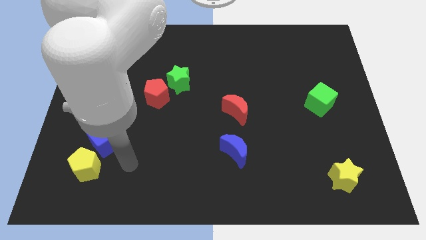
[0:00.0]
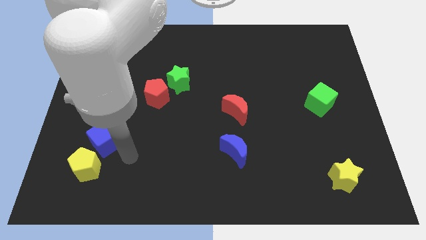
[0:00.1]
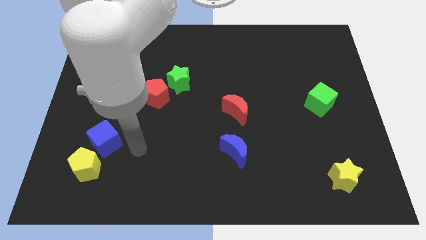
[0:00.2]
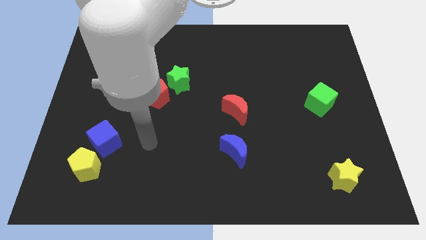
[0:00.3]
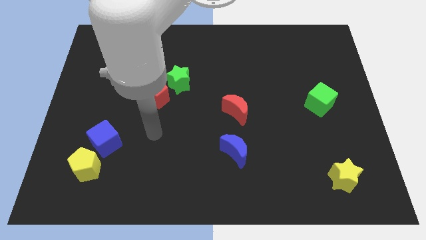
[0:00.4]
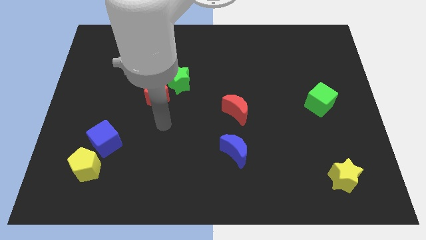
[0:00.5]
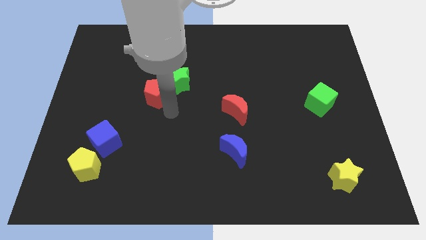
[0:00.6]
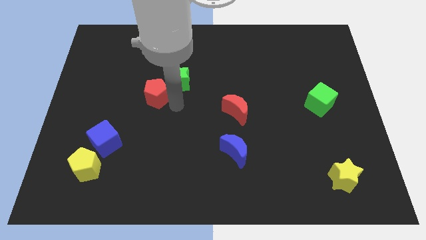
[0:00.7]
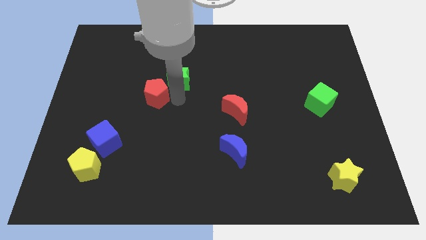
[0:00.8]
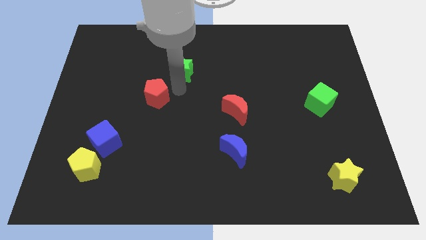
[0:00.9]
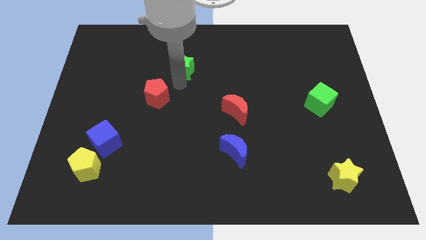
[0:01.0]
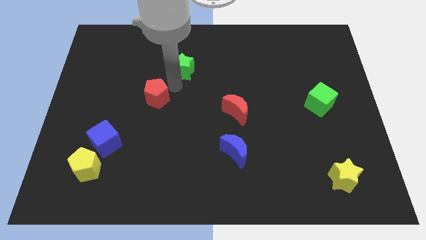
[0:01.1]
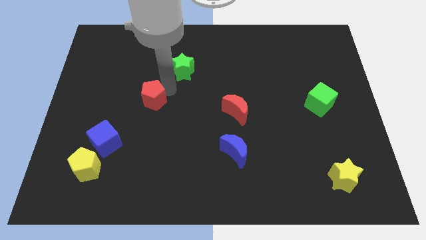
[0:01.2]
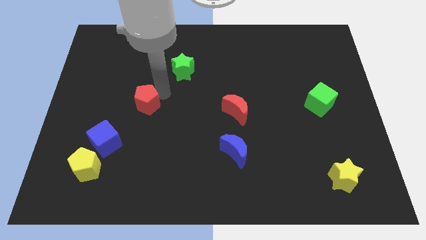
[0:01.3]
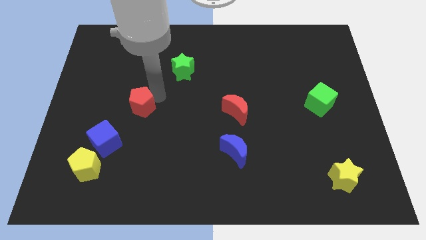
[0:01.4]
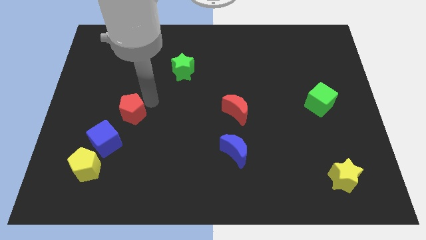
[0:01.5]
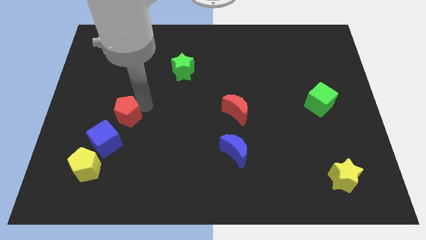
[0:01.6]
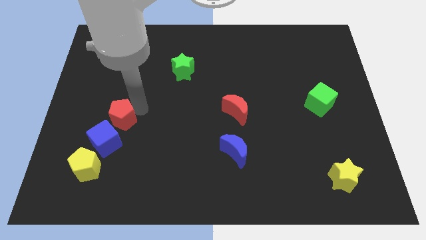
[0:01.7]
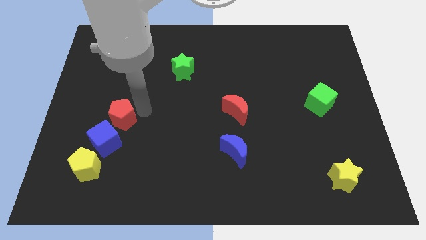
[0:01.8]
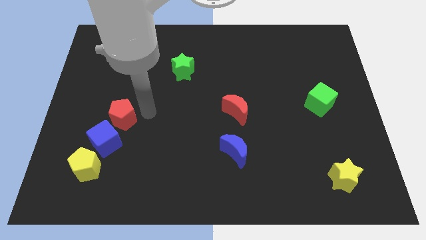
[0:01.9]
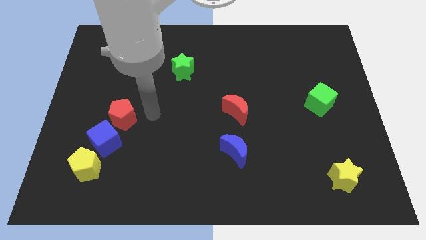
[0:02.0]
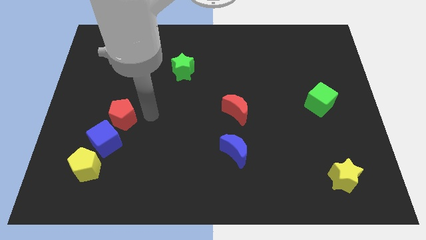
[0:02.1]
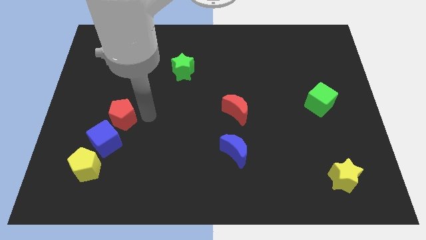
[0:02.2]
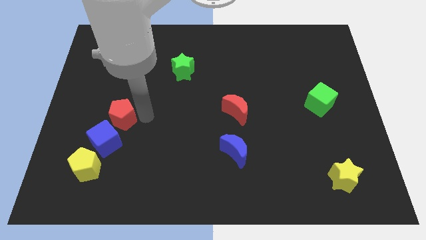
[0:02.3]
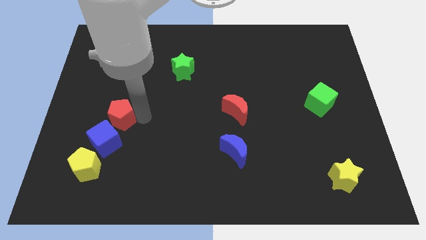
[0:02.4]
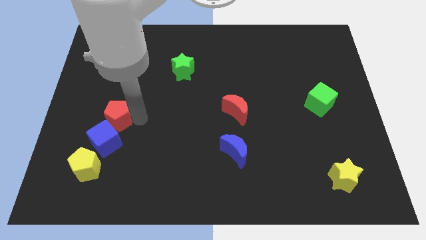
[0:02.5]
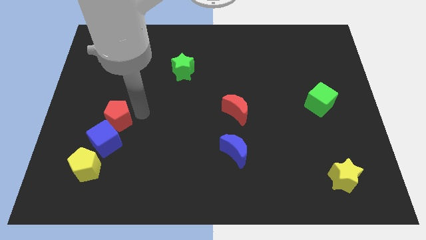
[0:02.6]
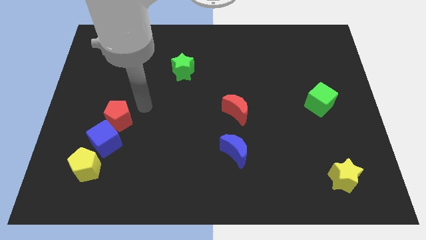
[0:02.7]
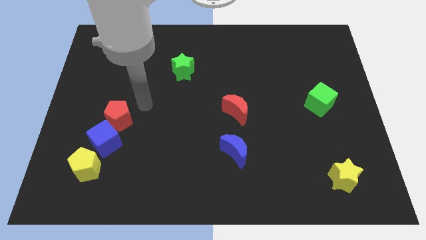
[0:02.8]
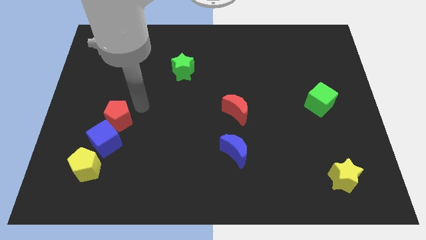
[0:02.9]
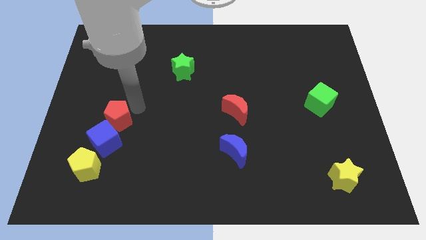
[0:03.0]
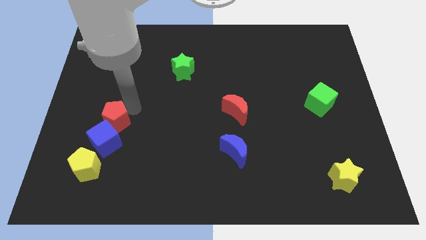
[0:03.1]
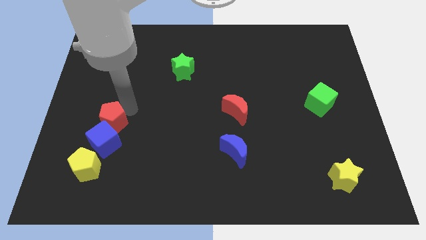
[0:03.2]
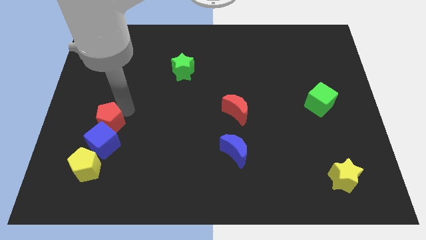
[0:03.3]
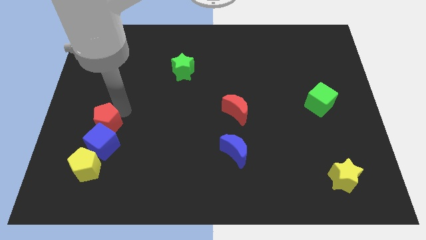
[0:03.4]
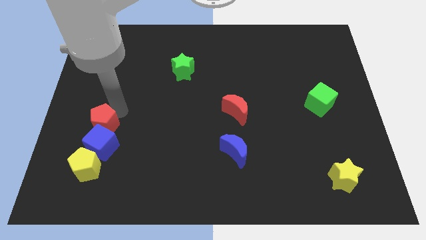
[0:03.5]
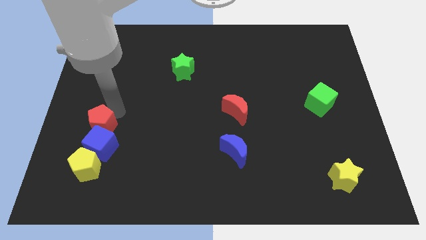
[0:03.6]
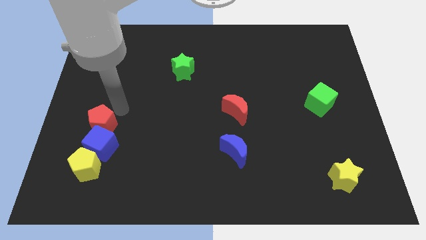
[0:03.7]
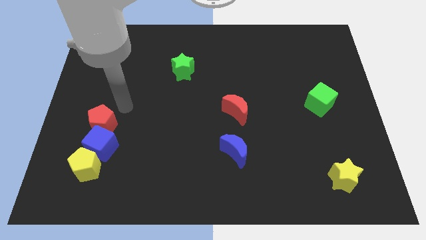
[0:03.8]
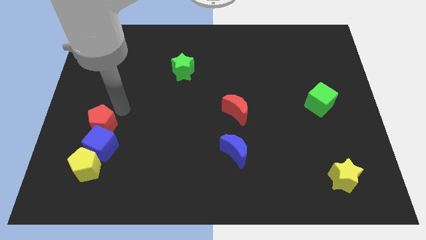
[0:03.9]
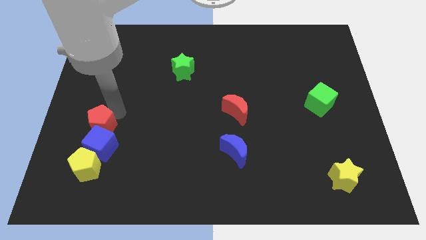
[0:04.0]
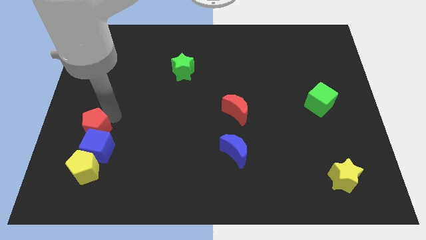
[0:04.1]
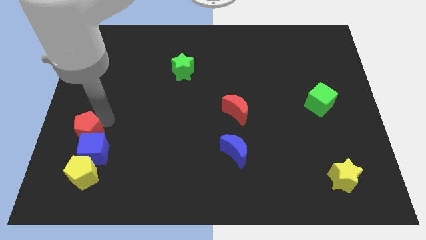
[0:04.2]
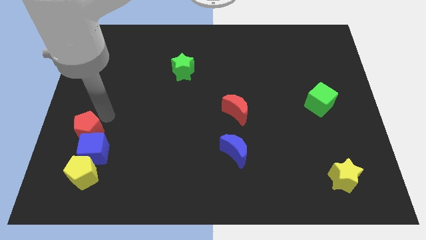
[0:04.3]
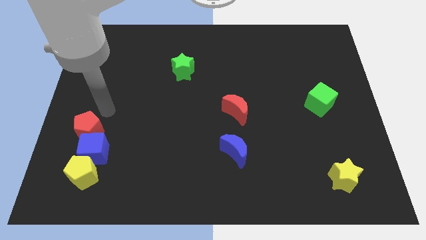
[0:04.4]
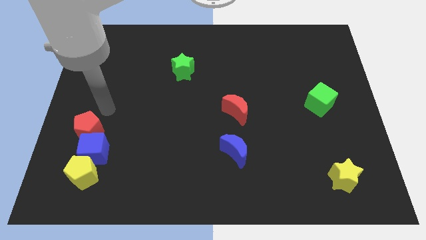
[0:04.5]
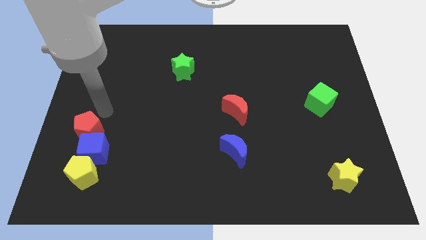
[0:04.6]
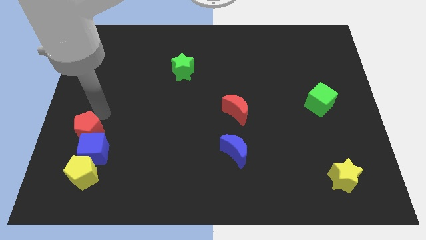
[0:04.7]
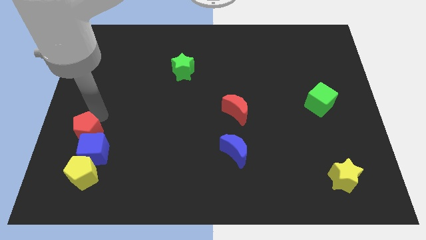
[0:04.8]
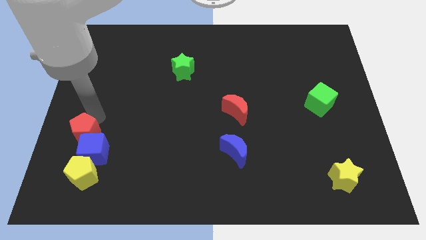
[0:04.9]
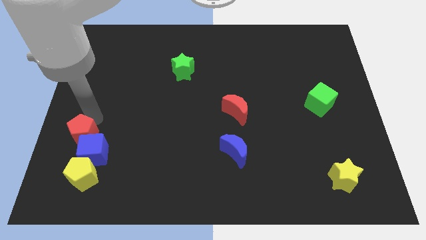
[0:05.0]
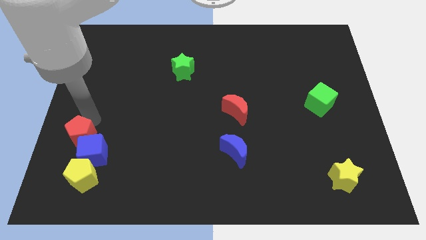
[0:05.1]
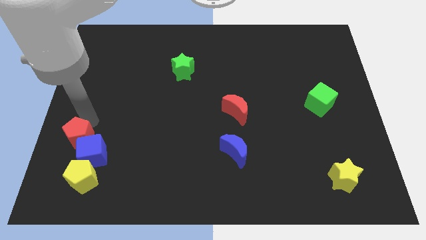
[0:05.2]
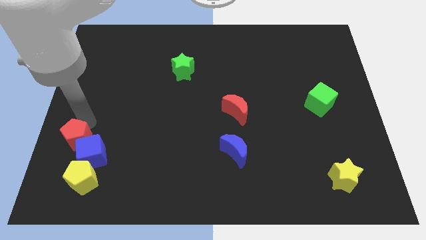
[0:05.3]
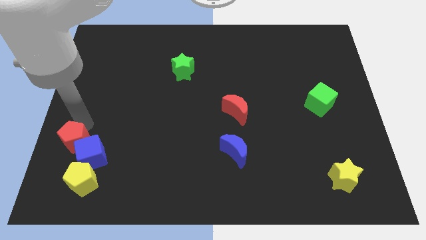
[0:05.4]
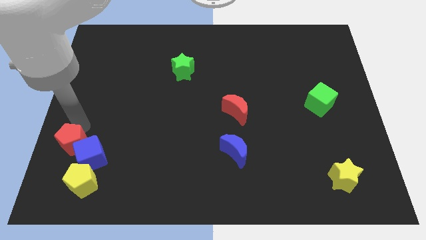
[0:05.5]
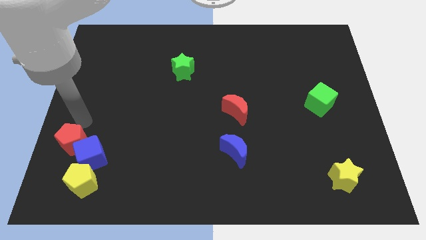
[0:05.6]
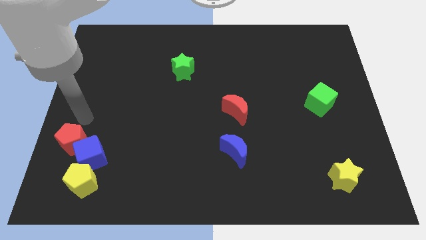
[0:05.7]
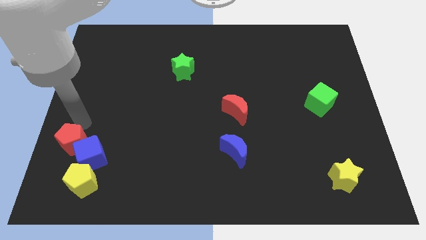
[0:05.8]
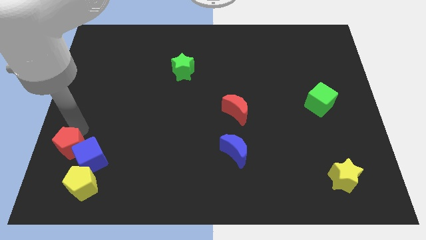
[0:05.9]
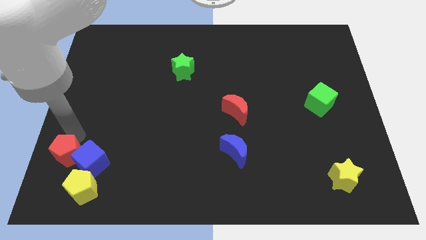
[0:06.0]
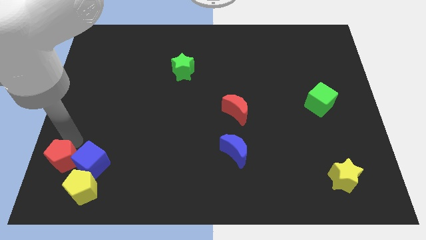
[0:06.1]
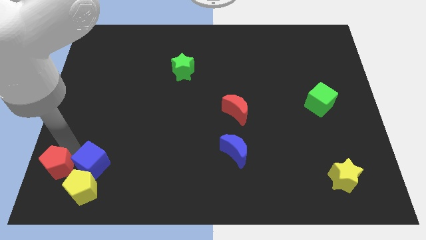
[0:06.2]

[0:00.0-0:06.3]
put the red pentagon to the bottom left of the board
